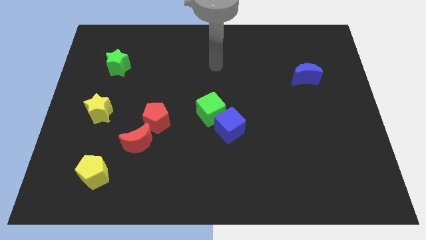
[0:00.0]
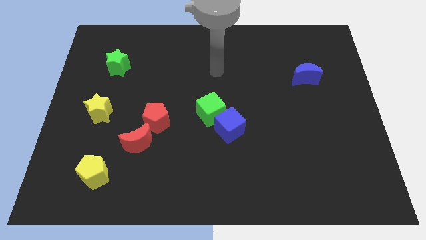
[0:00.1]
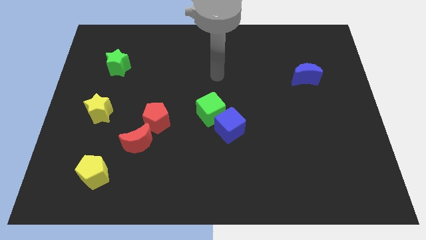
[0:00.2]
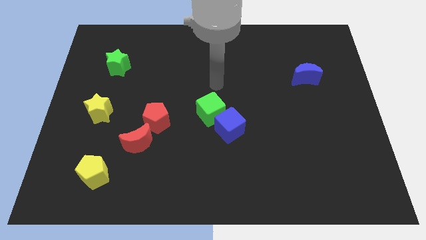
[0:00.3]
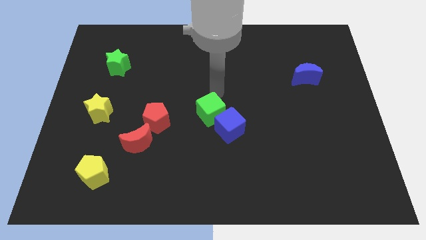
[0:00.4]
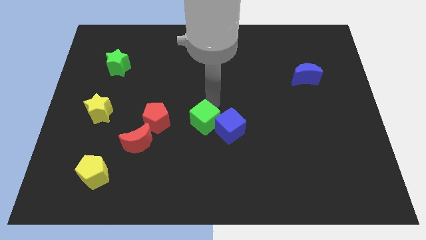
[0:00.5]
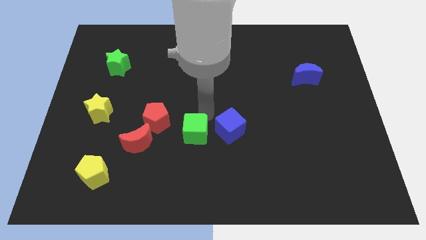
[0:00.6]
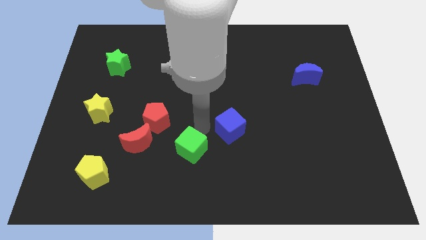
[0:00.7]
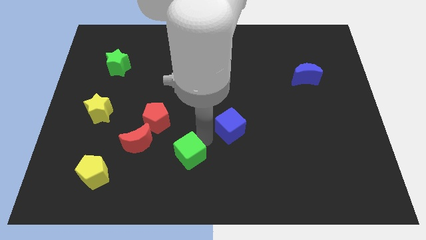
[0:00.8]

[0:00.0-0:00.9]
move the blue cube away from the green cube

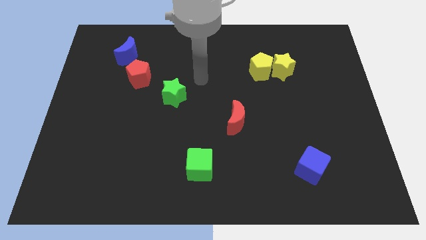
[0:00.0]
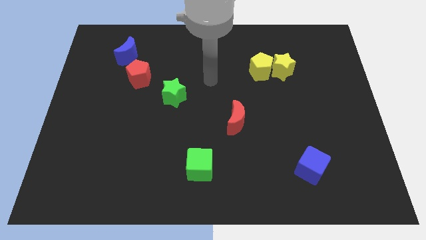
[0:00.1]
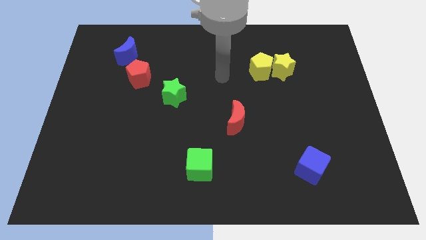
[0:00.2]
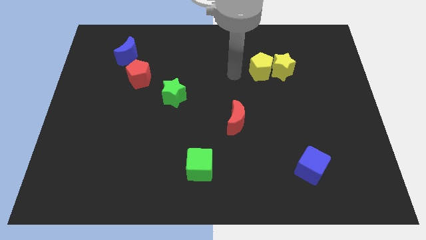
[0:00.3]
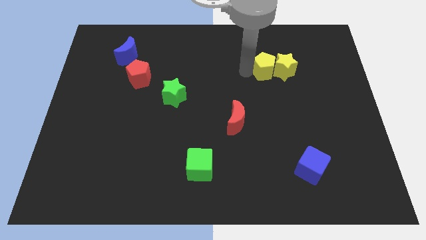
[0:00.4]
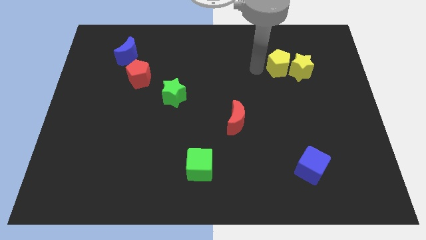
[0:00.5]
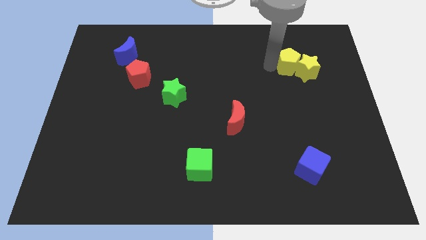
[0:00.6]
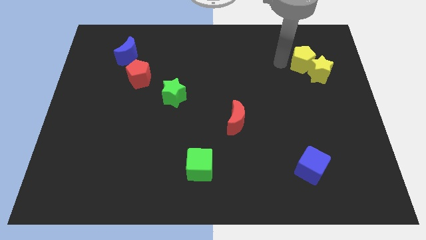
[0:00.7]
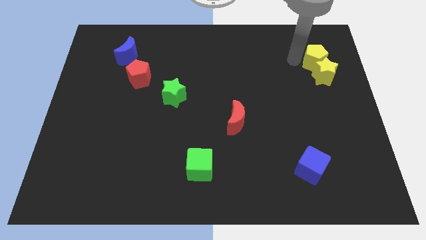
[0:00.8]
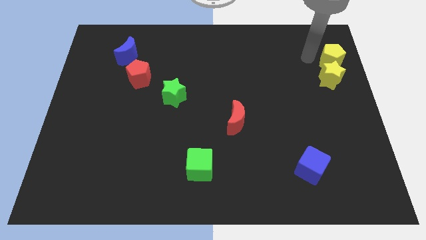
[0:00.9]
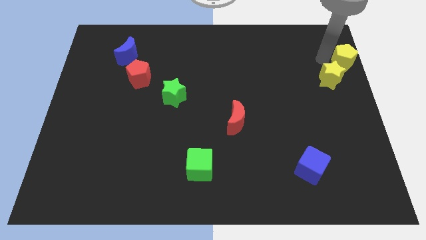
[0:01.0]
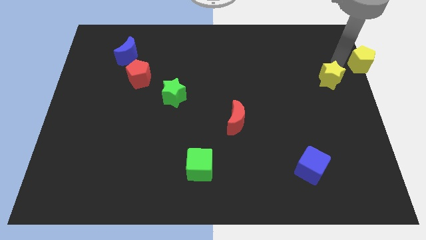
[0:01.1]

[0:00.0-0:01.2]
move the yellow star away from the yellow pentagon

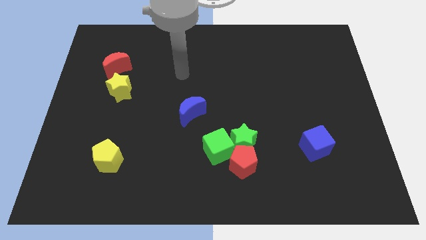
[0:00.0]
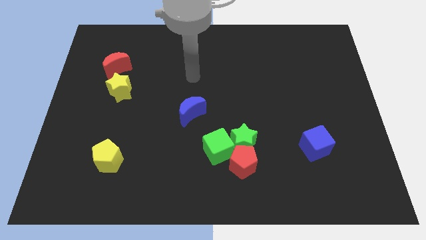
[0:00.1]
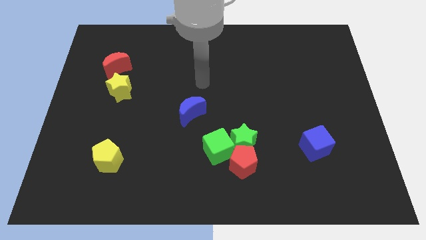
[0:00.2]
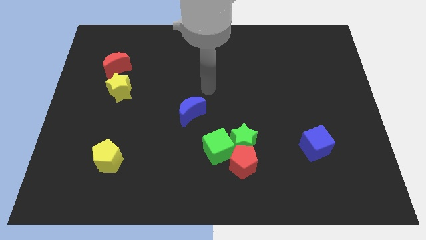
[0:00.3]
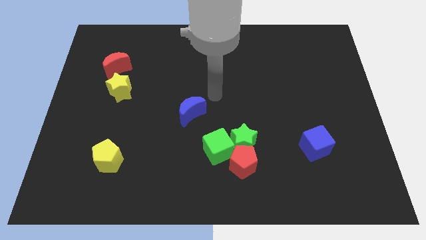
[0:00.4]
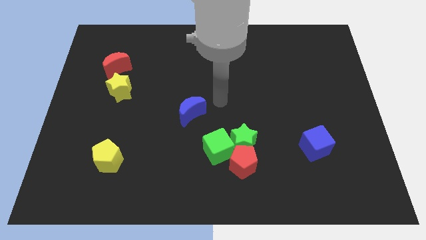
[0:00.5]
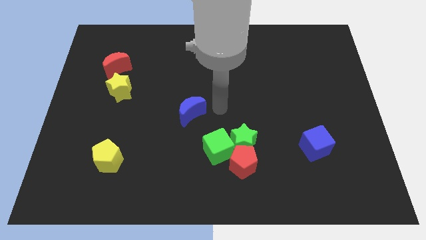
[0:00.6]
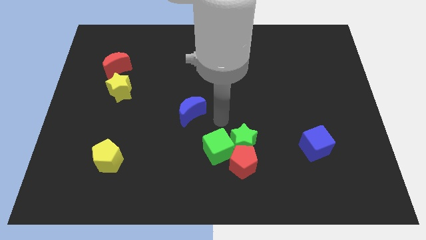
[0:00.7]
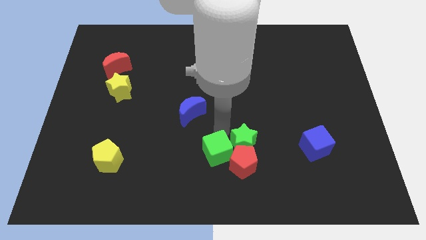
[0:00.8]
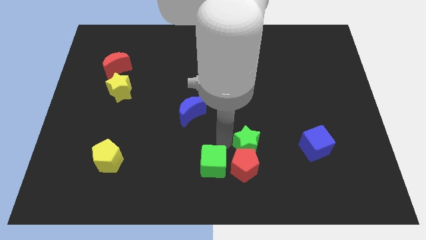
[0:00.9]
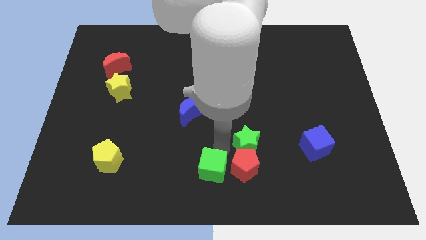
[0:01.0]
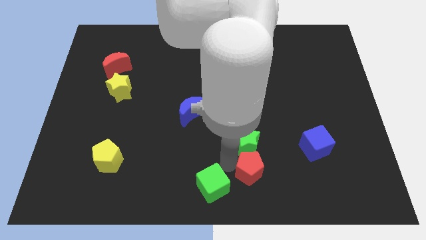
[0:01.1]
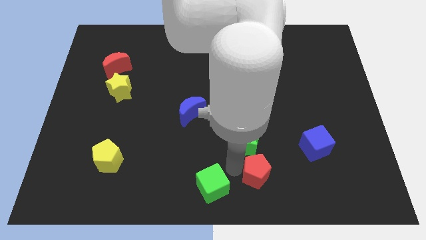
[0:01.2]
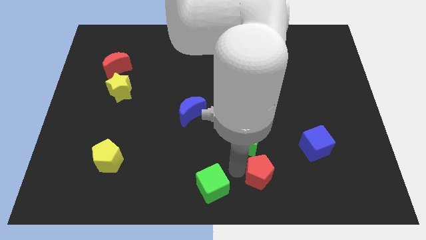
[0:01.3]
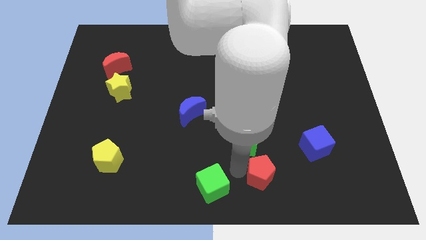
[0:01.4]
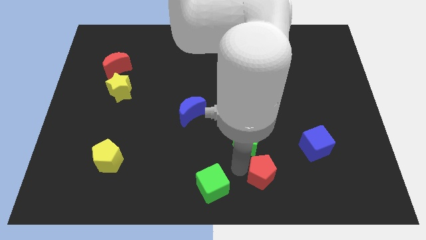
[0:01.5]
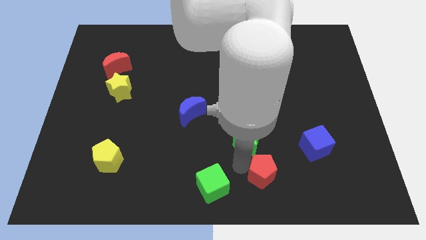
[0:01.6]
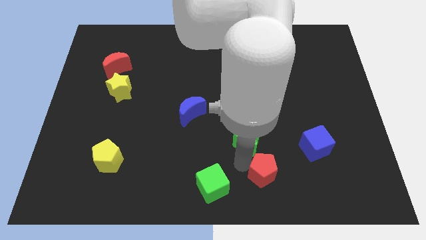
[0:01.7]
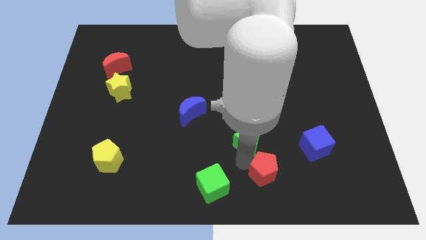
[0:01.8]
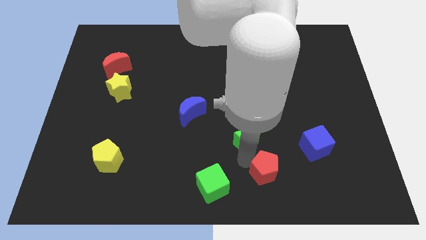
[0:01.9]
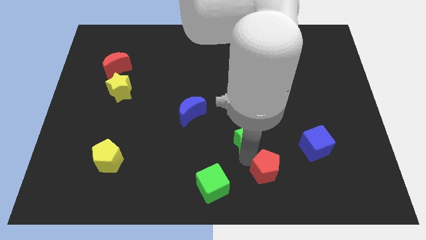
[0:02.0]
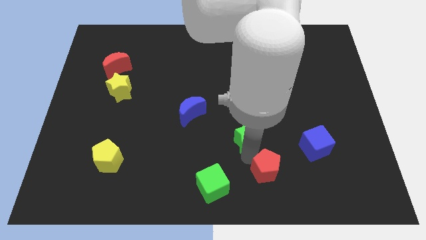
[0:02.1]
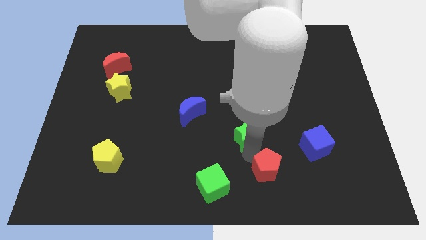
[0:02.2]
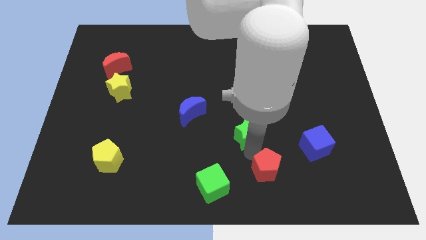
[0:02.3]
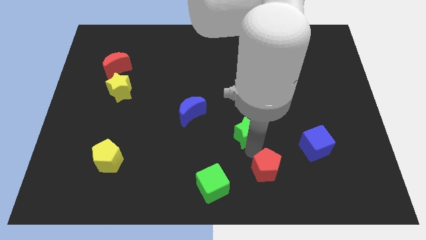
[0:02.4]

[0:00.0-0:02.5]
move the green star away from the red pentagon and green cube

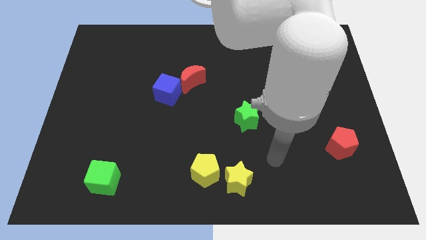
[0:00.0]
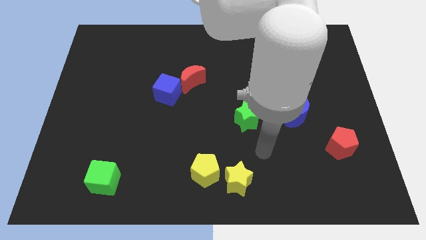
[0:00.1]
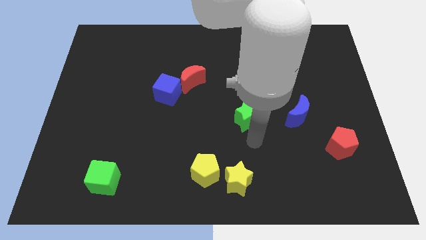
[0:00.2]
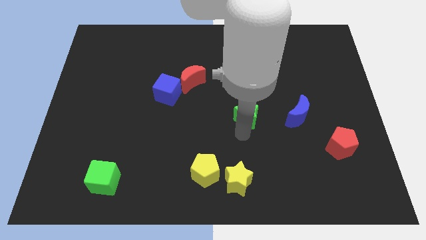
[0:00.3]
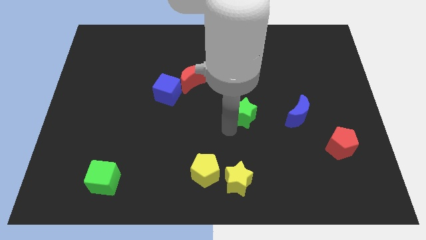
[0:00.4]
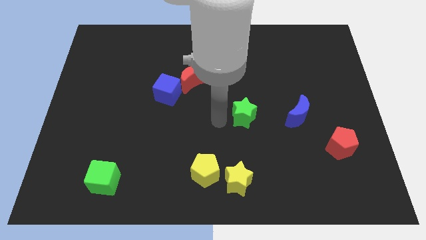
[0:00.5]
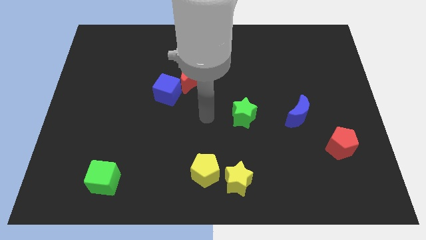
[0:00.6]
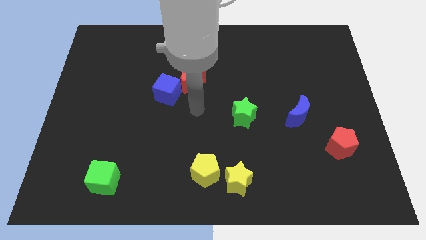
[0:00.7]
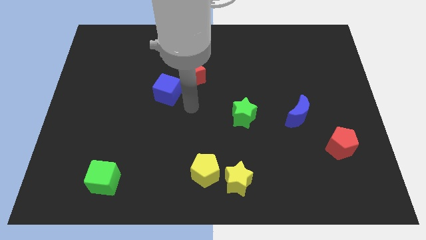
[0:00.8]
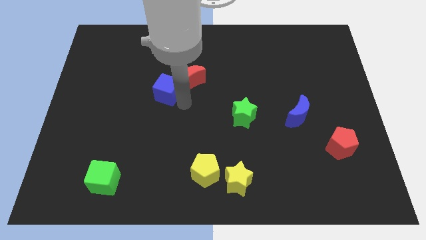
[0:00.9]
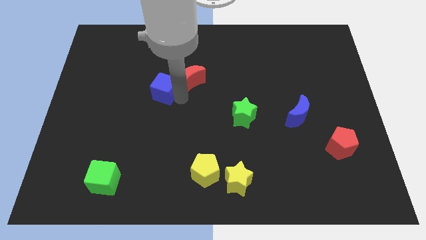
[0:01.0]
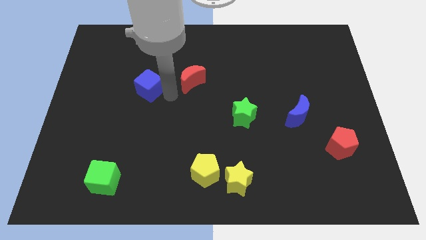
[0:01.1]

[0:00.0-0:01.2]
move the red moon away from the blue cube

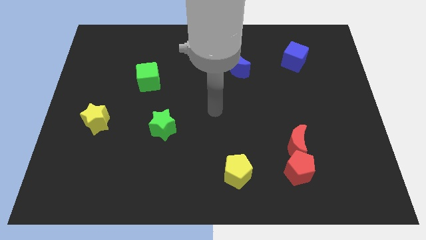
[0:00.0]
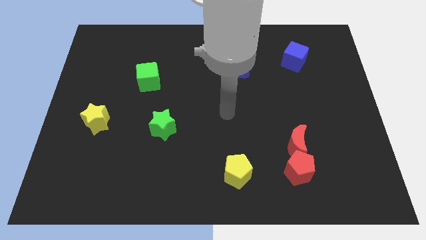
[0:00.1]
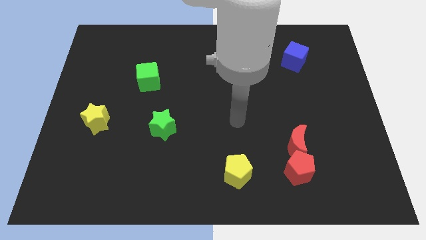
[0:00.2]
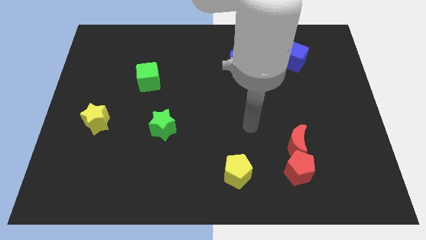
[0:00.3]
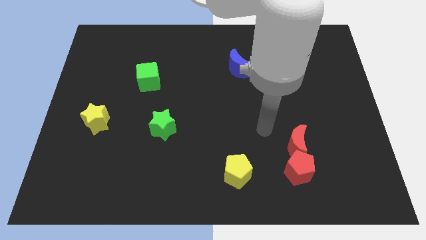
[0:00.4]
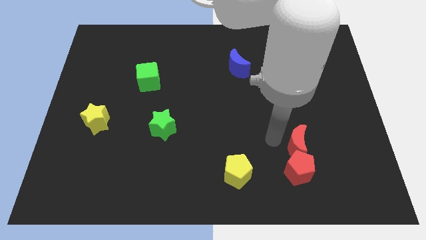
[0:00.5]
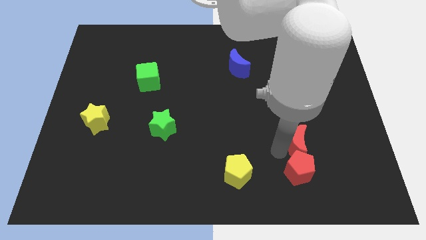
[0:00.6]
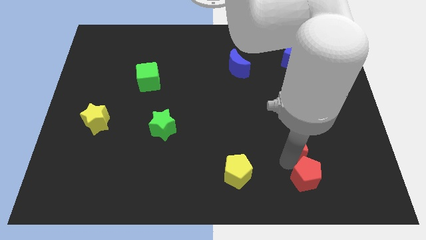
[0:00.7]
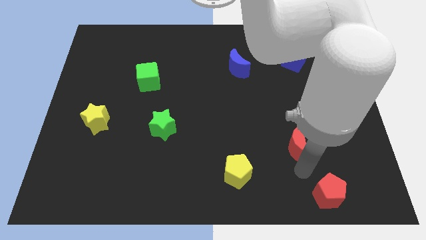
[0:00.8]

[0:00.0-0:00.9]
pull the red moon apart from the red pentagon

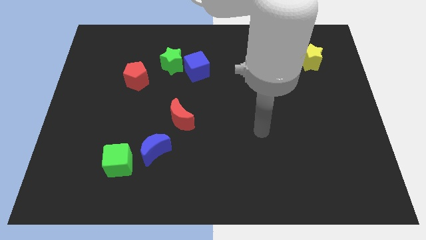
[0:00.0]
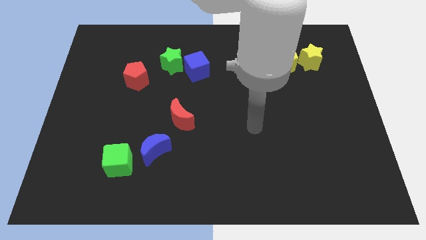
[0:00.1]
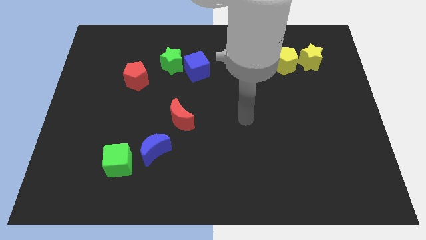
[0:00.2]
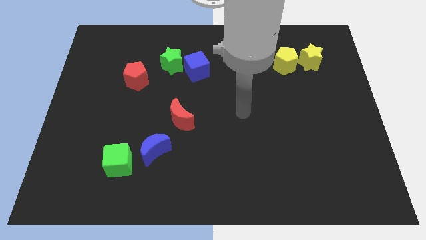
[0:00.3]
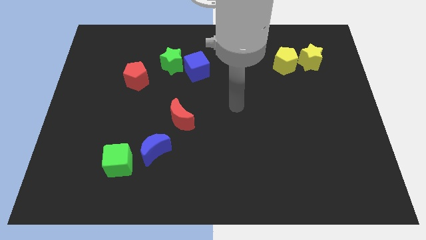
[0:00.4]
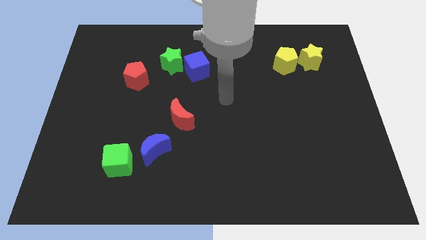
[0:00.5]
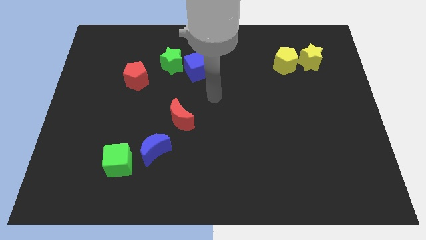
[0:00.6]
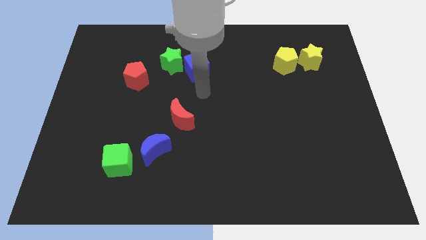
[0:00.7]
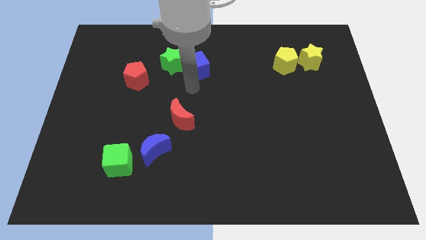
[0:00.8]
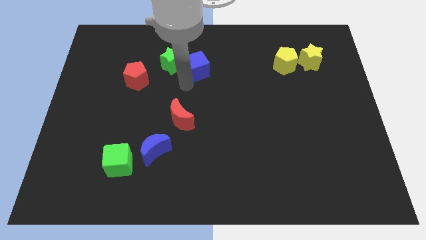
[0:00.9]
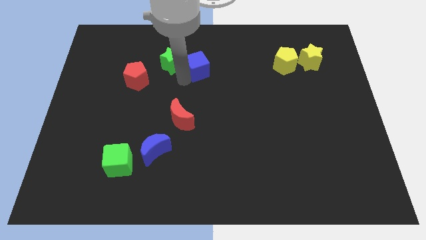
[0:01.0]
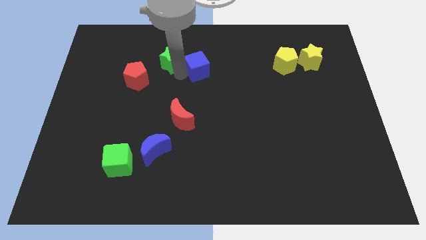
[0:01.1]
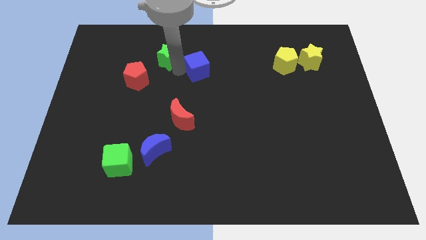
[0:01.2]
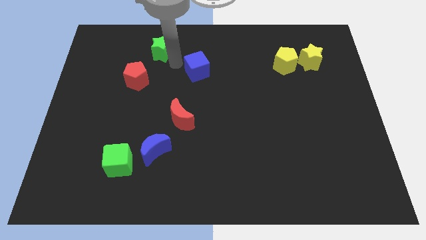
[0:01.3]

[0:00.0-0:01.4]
move the blue cube away from the green star

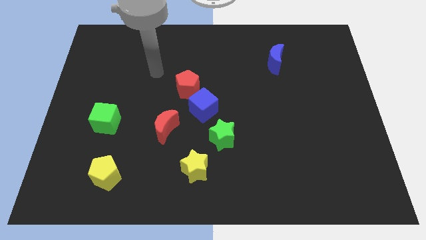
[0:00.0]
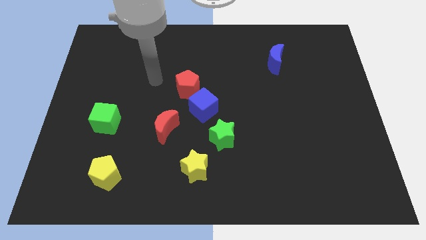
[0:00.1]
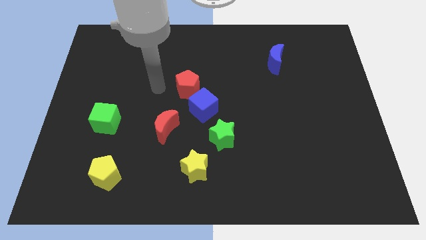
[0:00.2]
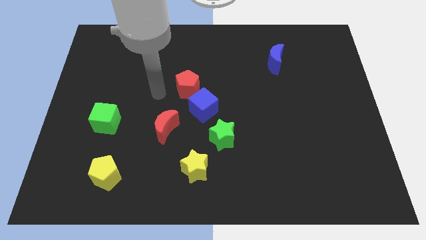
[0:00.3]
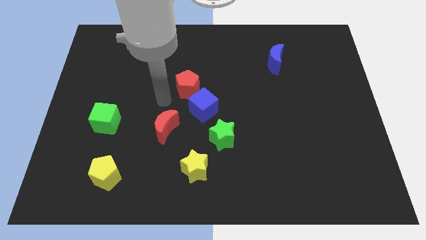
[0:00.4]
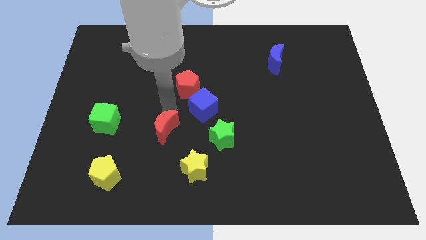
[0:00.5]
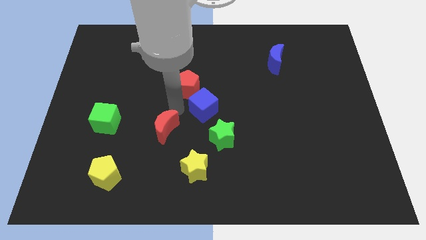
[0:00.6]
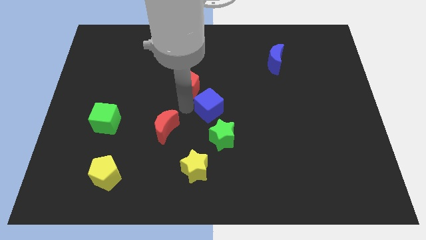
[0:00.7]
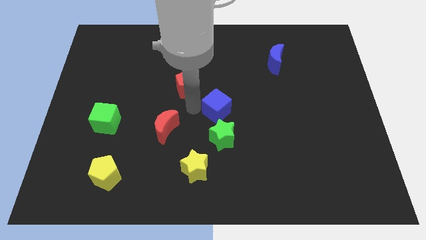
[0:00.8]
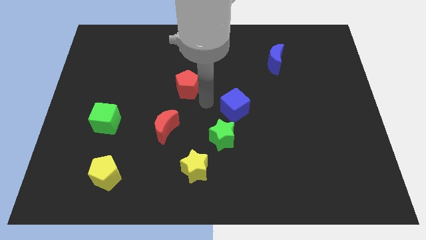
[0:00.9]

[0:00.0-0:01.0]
separate the red pentagon from the blue cube

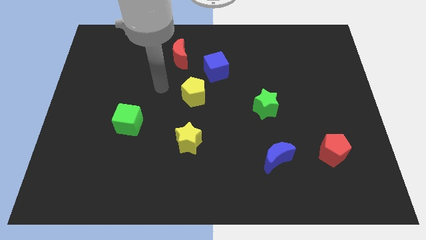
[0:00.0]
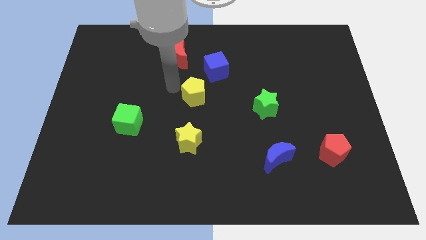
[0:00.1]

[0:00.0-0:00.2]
move the blue cube away from the yellow pentagon
